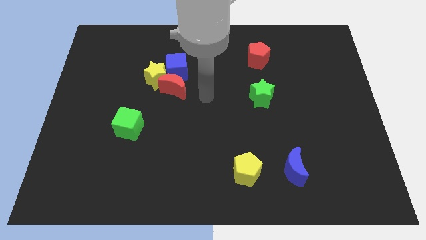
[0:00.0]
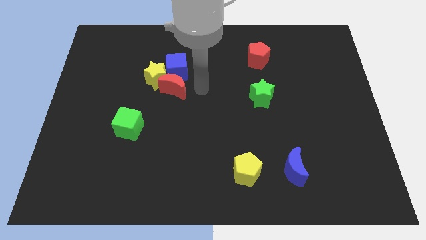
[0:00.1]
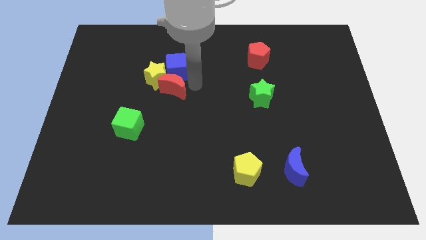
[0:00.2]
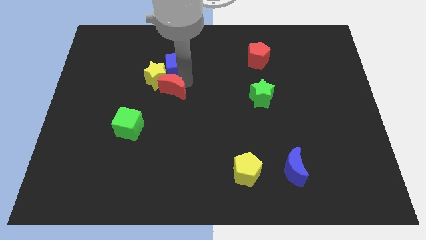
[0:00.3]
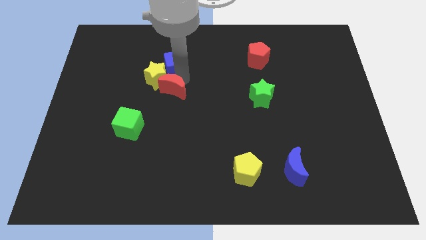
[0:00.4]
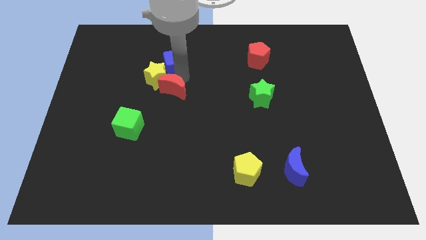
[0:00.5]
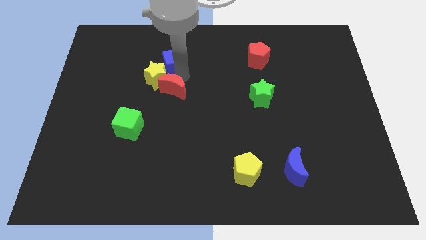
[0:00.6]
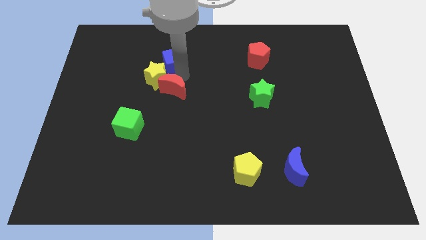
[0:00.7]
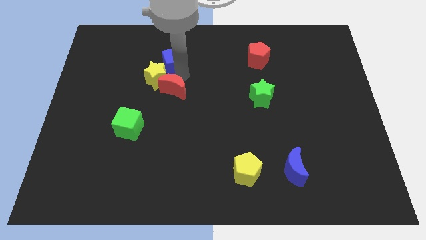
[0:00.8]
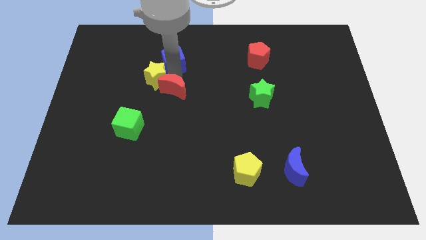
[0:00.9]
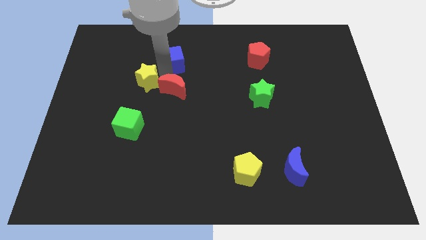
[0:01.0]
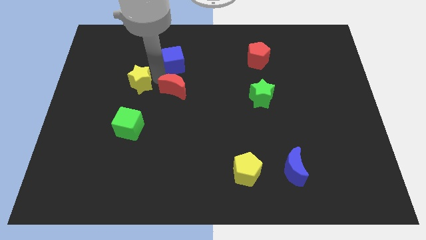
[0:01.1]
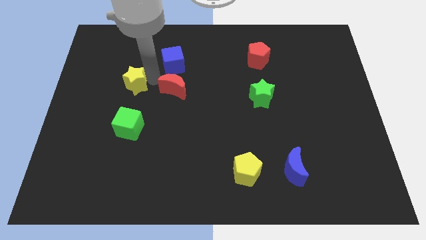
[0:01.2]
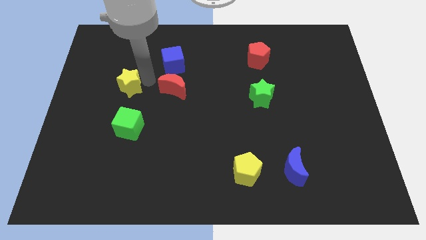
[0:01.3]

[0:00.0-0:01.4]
separate the yellow star from the red moon and blue cube

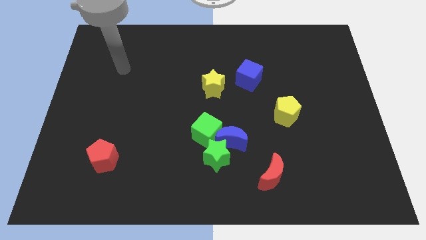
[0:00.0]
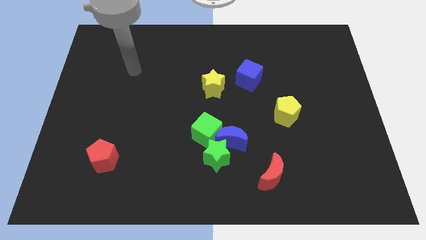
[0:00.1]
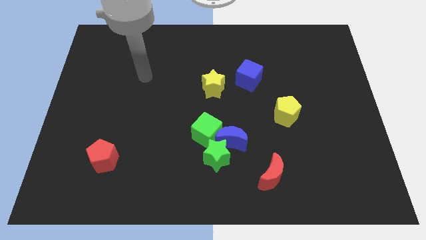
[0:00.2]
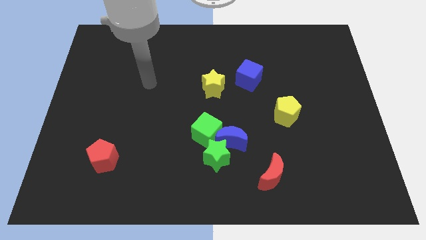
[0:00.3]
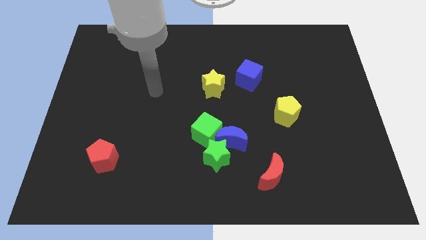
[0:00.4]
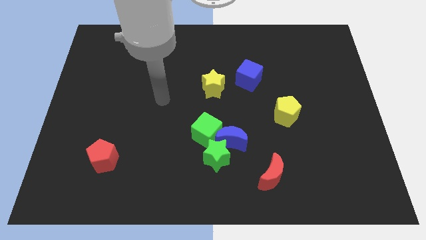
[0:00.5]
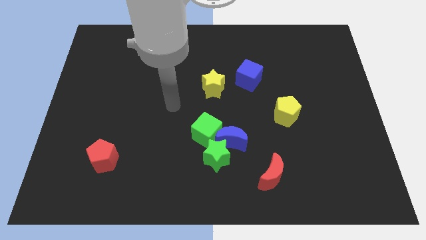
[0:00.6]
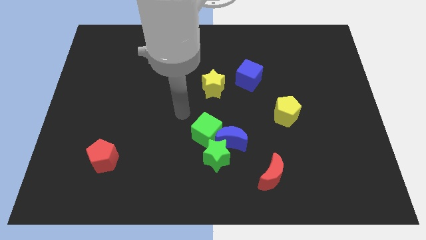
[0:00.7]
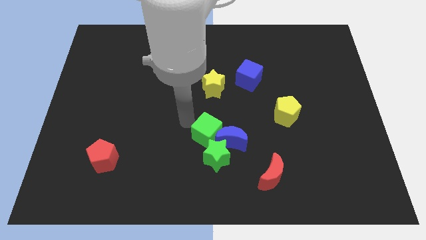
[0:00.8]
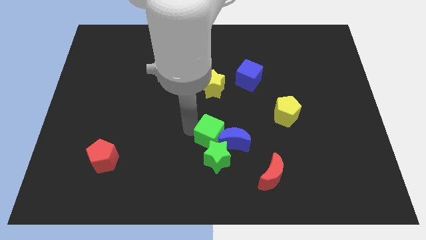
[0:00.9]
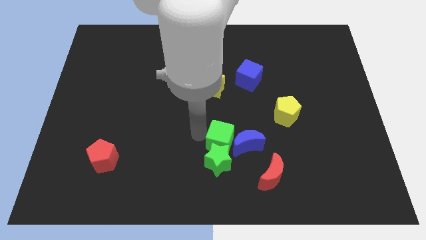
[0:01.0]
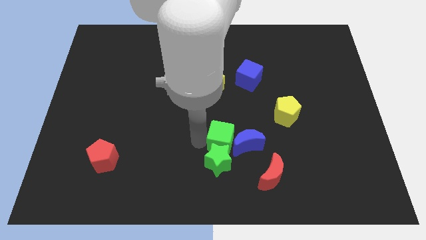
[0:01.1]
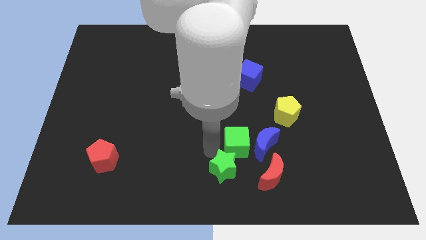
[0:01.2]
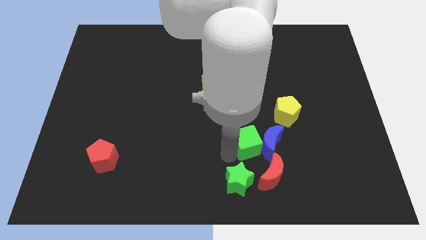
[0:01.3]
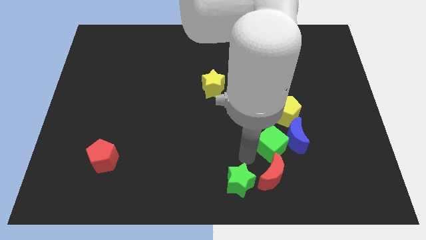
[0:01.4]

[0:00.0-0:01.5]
move the blue moon away from the green star and green cube

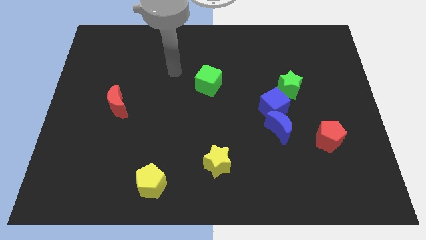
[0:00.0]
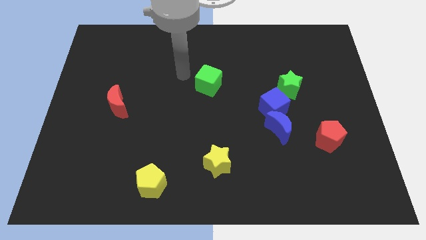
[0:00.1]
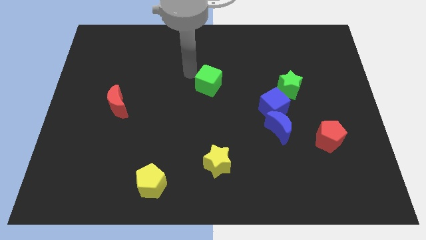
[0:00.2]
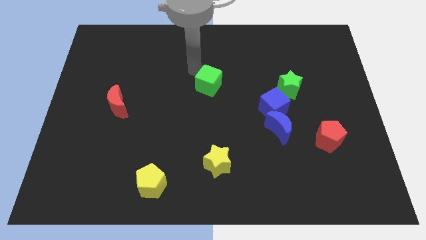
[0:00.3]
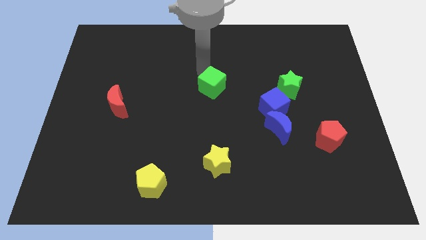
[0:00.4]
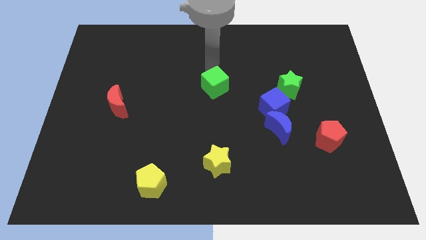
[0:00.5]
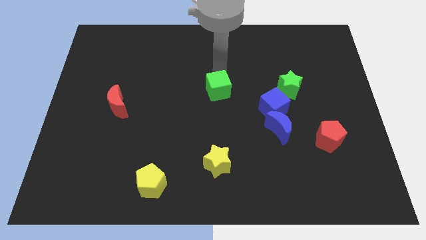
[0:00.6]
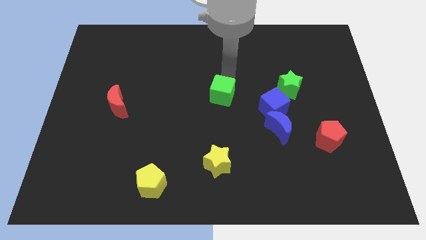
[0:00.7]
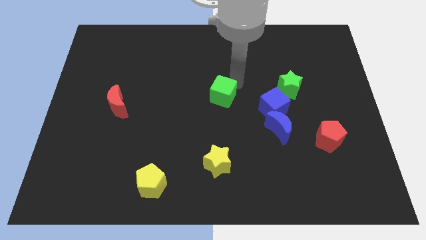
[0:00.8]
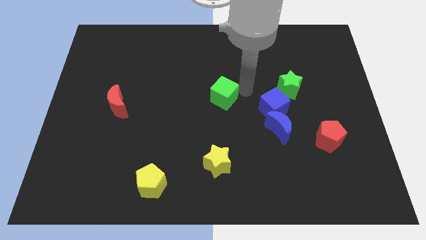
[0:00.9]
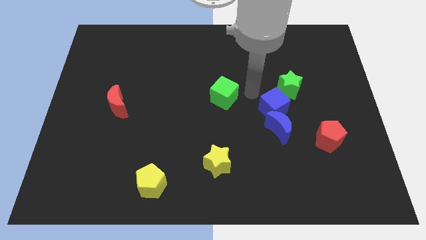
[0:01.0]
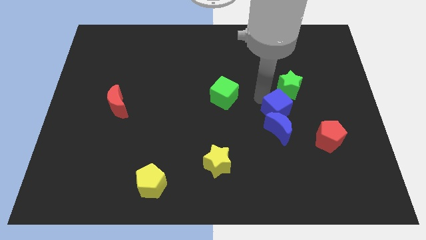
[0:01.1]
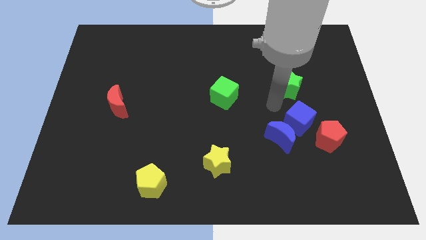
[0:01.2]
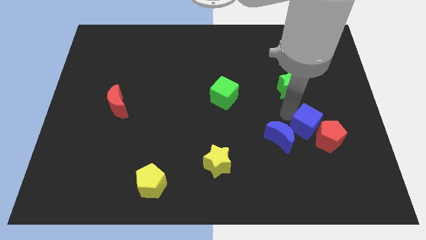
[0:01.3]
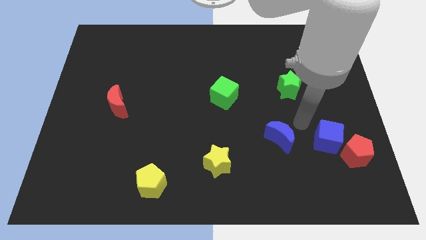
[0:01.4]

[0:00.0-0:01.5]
move the blue moon away from the blue cube

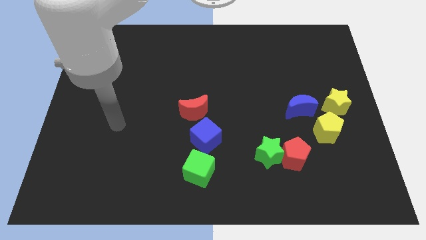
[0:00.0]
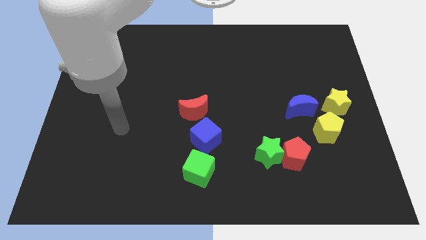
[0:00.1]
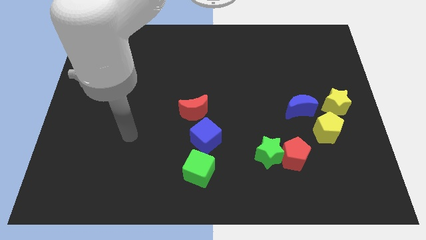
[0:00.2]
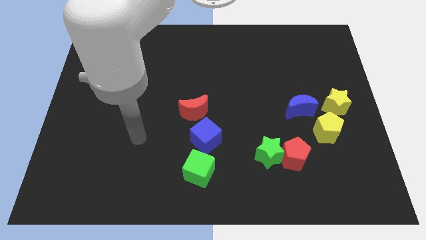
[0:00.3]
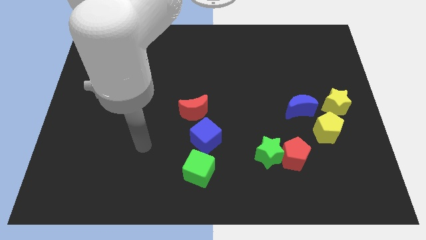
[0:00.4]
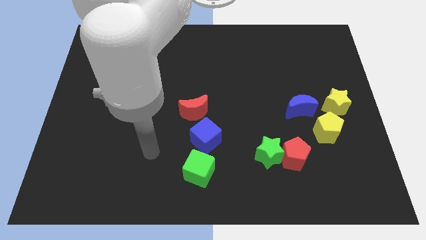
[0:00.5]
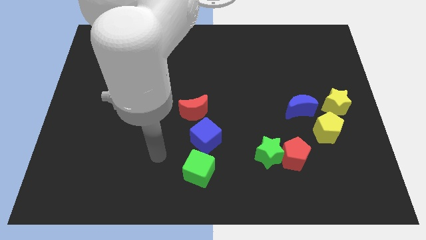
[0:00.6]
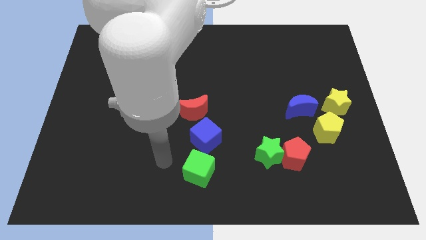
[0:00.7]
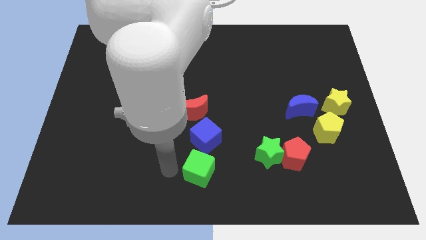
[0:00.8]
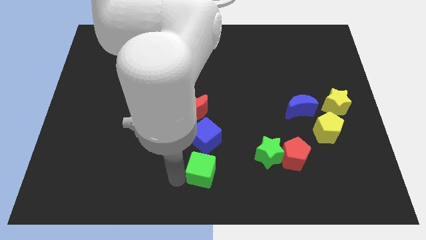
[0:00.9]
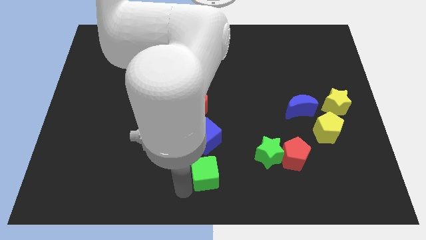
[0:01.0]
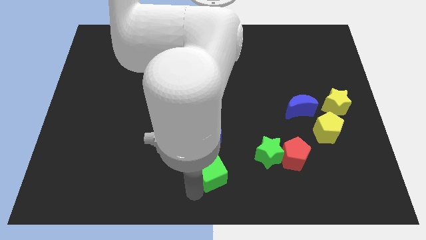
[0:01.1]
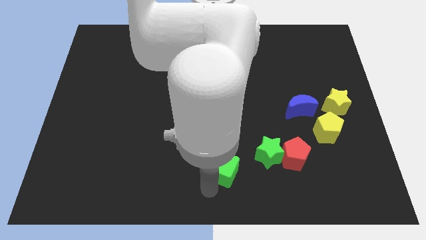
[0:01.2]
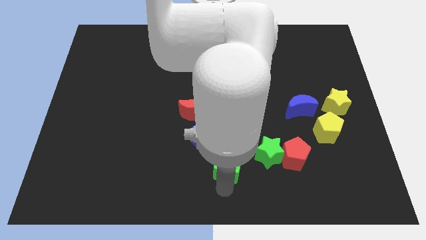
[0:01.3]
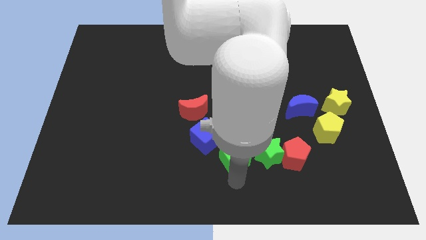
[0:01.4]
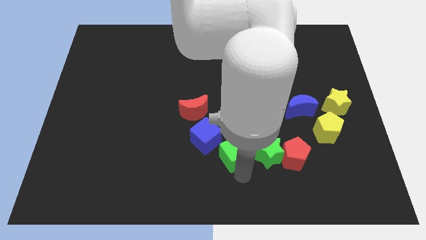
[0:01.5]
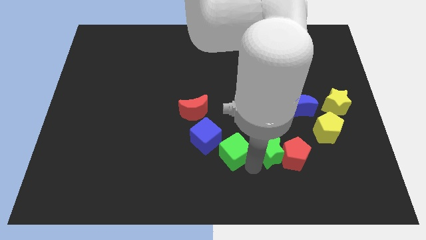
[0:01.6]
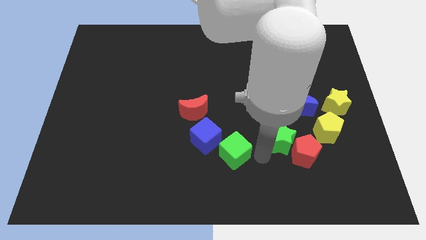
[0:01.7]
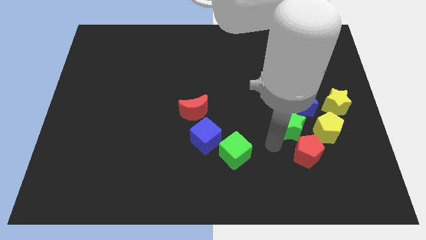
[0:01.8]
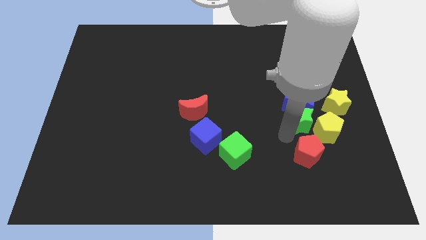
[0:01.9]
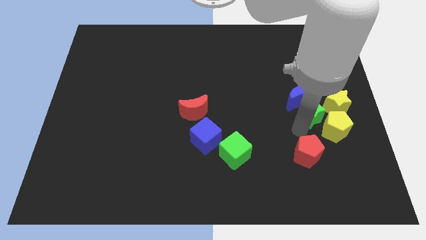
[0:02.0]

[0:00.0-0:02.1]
pull the red pentagon apart from the green star

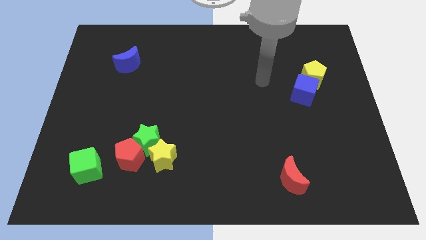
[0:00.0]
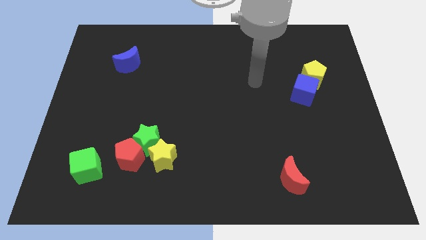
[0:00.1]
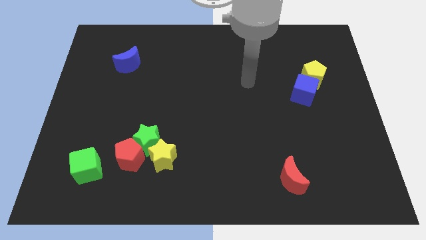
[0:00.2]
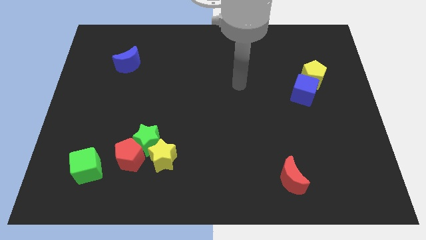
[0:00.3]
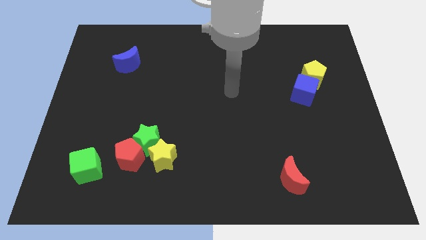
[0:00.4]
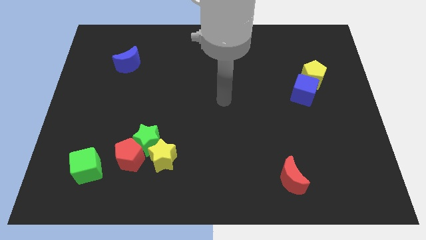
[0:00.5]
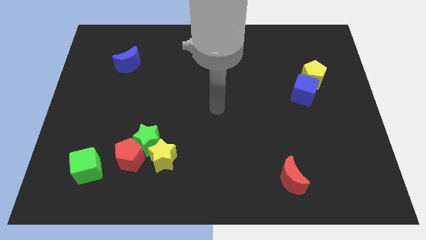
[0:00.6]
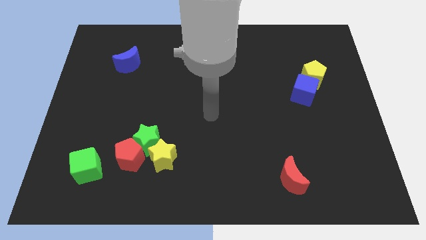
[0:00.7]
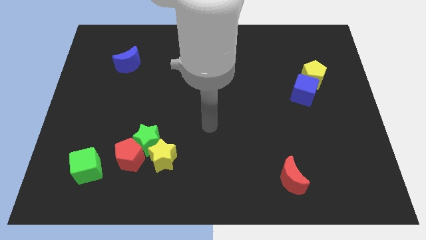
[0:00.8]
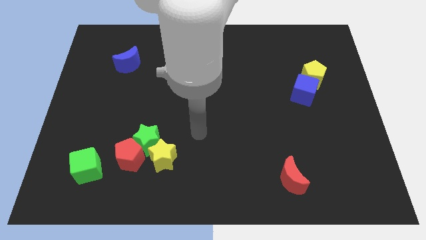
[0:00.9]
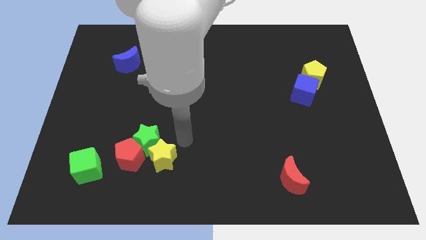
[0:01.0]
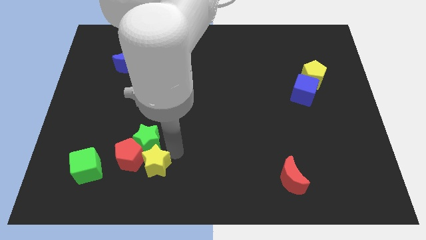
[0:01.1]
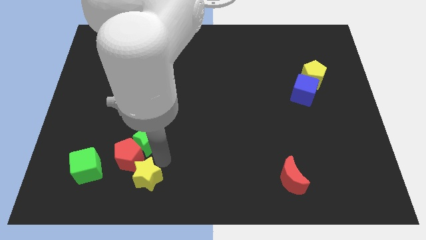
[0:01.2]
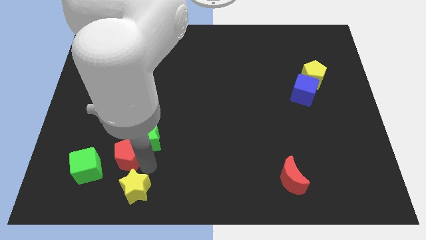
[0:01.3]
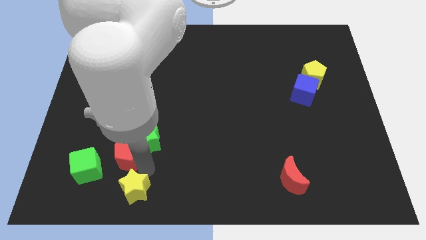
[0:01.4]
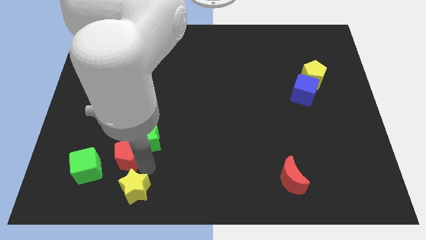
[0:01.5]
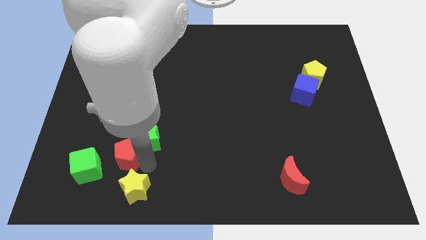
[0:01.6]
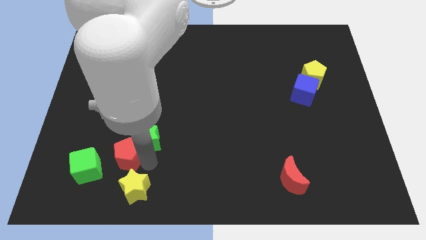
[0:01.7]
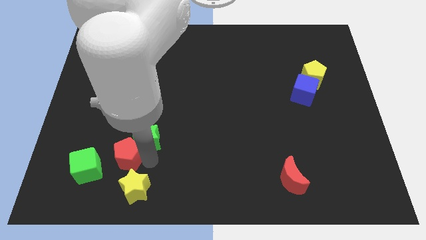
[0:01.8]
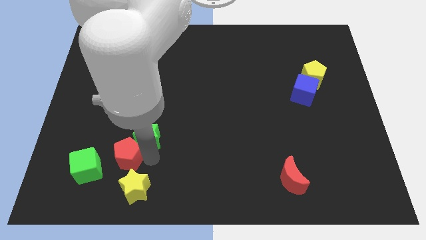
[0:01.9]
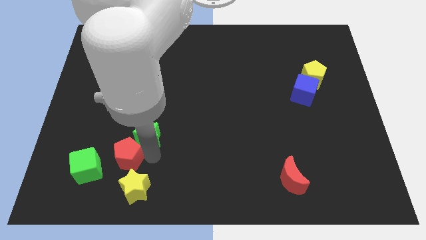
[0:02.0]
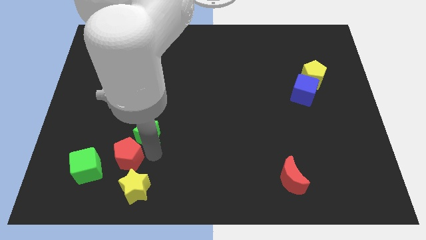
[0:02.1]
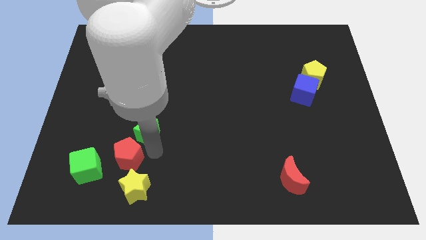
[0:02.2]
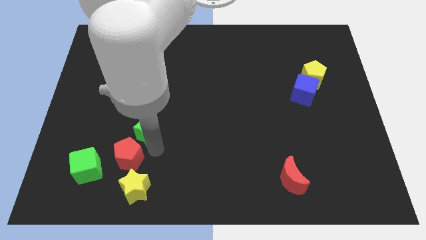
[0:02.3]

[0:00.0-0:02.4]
separate the green star from the red pentagon and yellow star

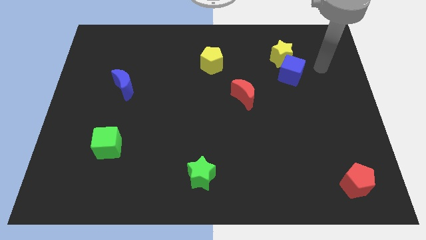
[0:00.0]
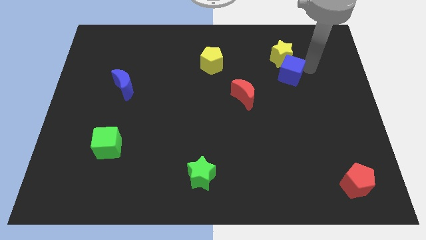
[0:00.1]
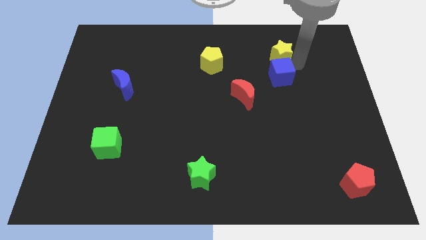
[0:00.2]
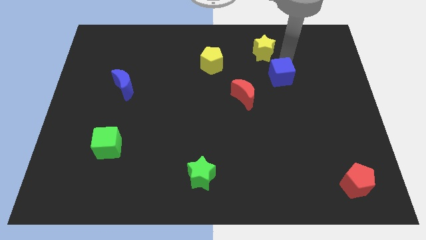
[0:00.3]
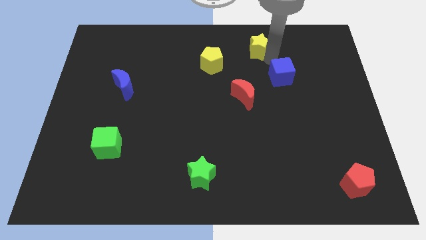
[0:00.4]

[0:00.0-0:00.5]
separate the blue cube from the yellow star

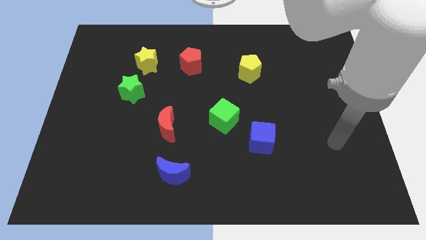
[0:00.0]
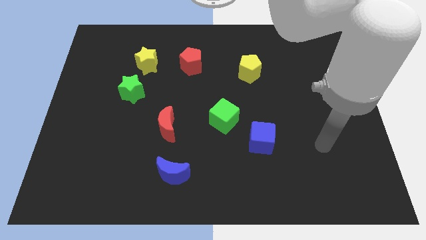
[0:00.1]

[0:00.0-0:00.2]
separate the blue cube from the green cube
